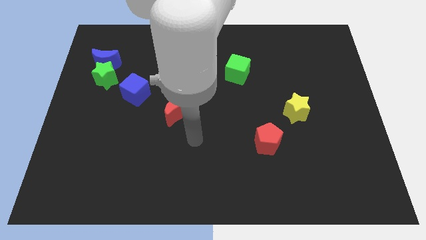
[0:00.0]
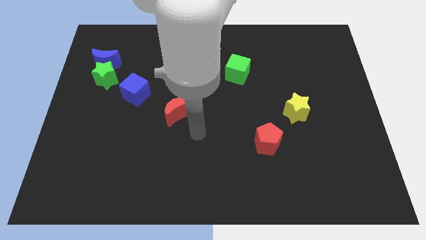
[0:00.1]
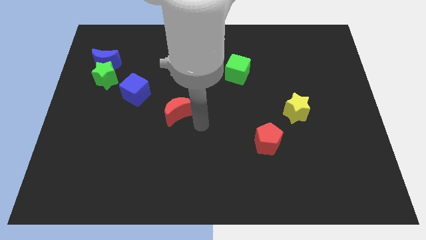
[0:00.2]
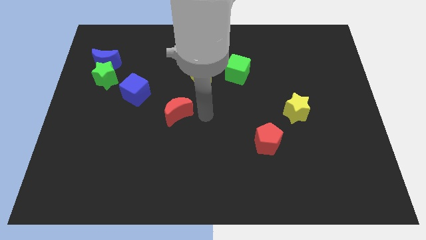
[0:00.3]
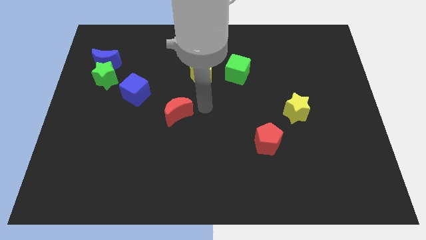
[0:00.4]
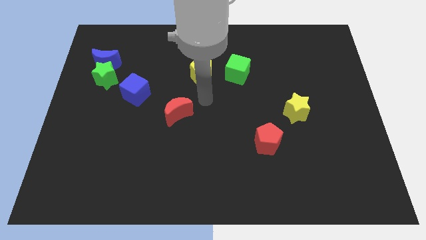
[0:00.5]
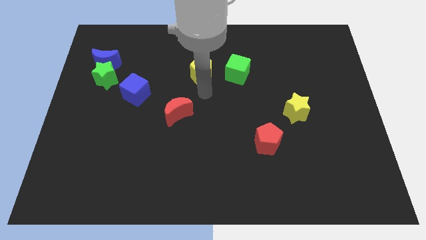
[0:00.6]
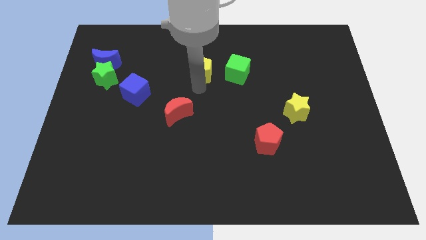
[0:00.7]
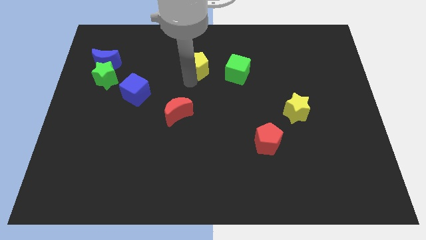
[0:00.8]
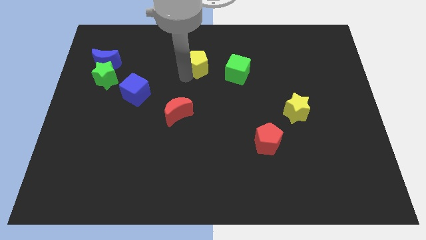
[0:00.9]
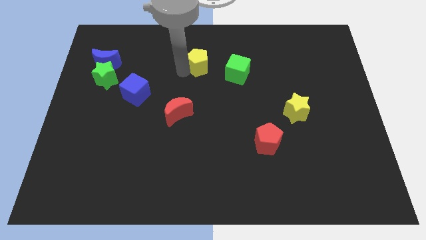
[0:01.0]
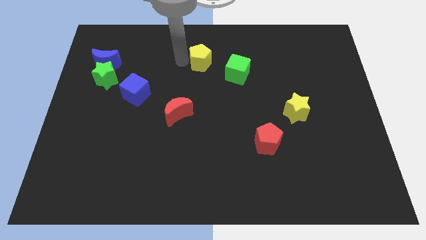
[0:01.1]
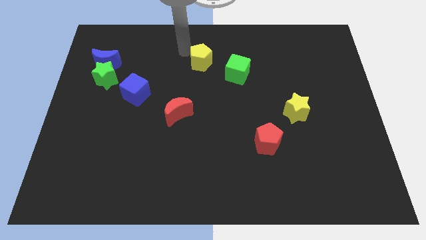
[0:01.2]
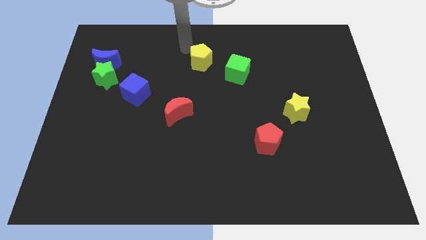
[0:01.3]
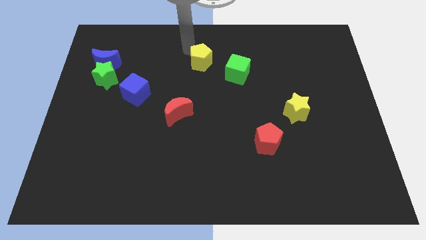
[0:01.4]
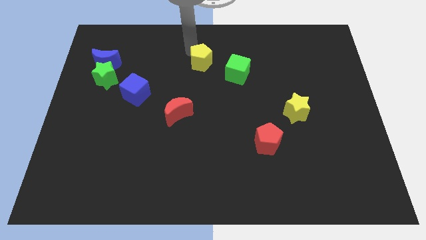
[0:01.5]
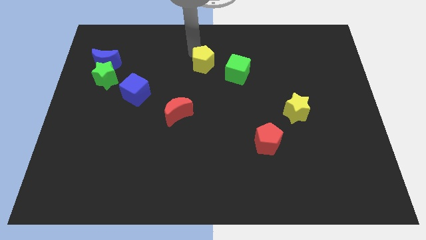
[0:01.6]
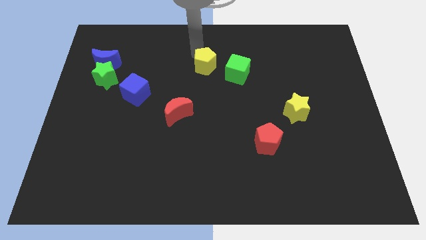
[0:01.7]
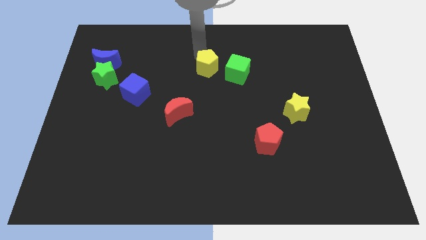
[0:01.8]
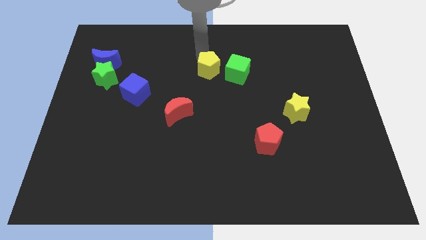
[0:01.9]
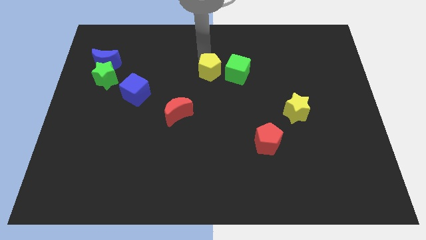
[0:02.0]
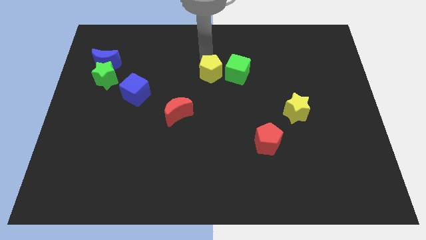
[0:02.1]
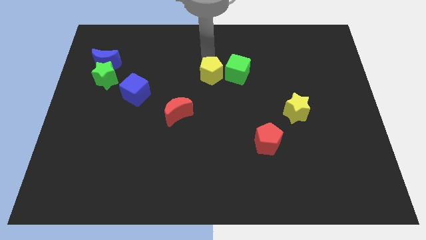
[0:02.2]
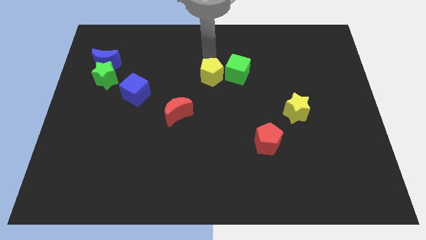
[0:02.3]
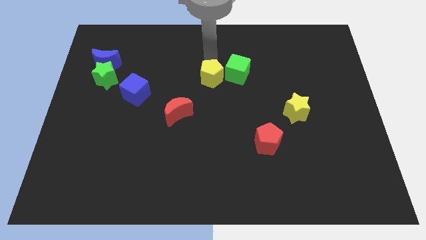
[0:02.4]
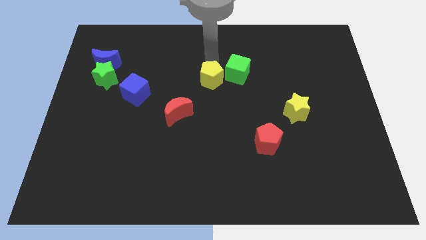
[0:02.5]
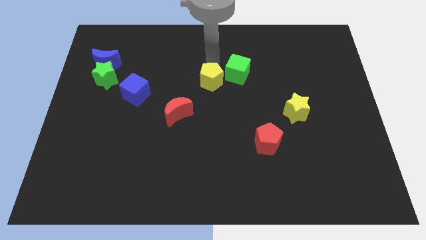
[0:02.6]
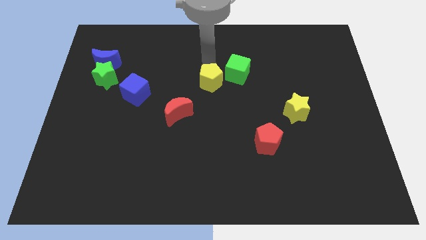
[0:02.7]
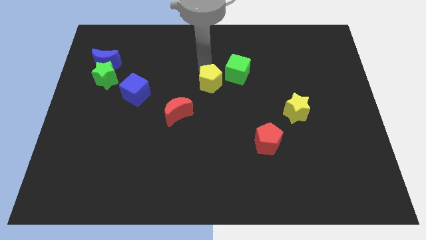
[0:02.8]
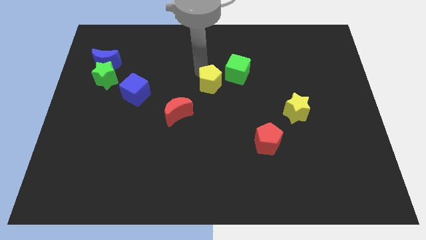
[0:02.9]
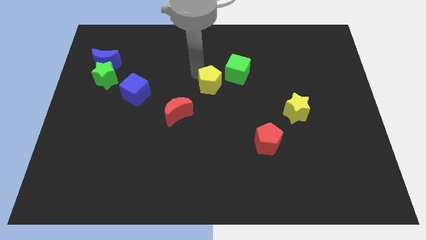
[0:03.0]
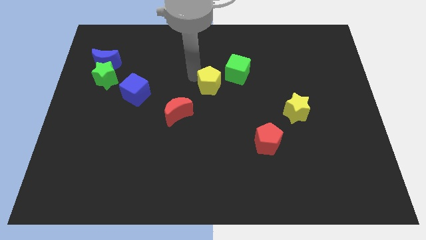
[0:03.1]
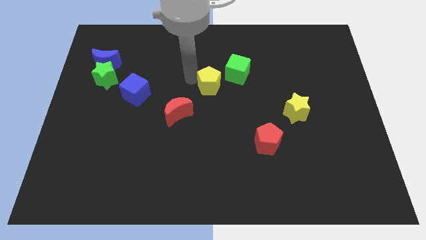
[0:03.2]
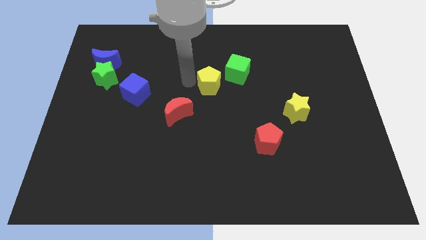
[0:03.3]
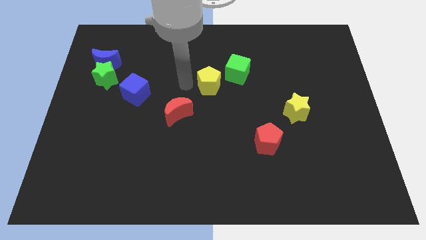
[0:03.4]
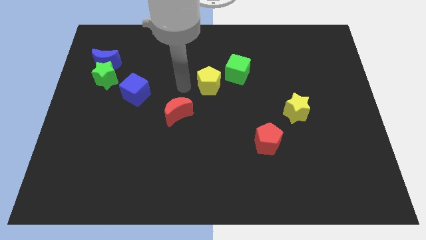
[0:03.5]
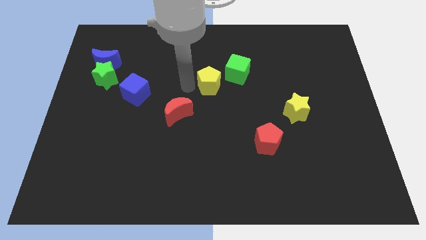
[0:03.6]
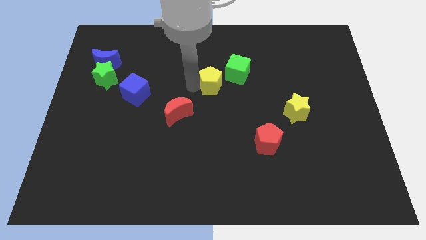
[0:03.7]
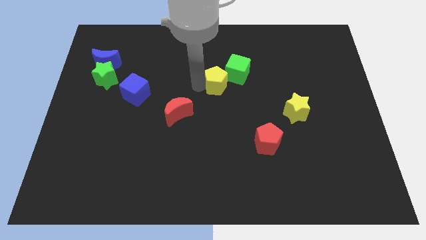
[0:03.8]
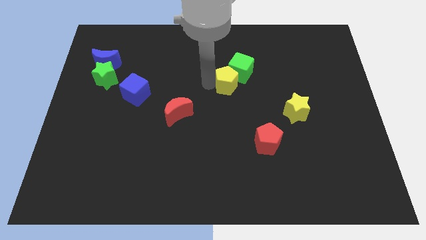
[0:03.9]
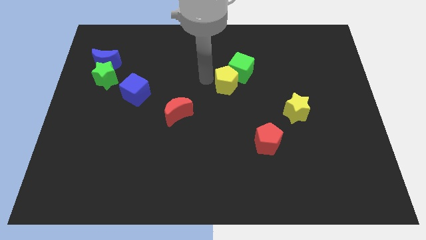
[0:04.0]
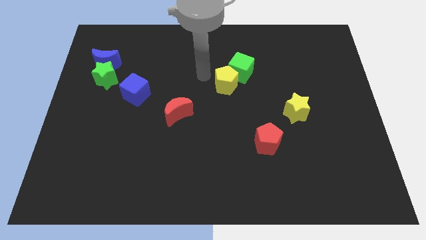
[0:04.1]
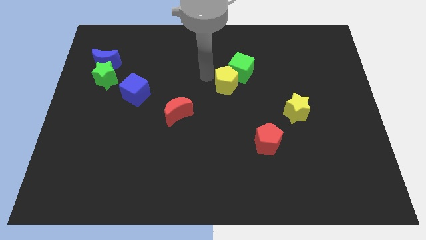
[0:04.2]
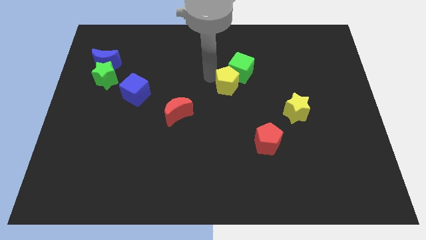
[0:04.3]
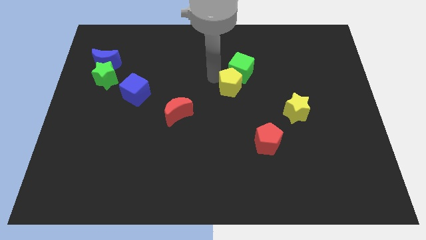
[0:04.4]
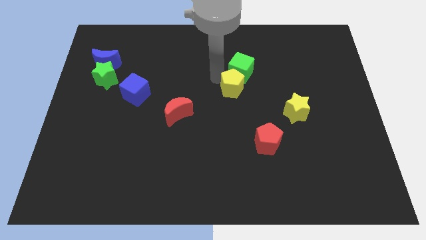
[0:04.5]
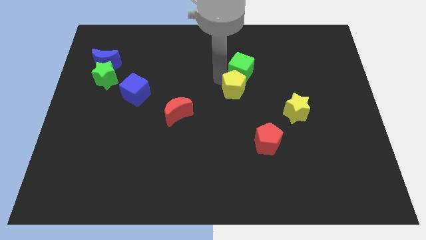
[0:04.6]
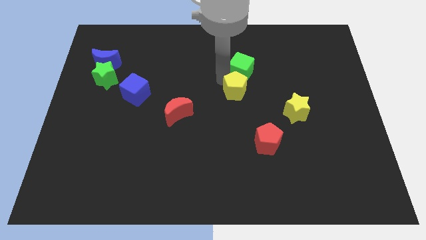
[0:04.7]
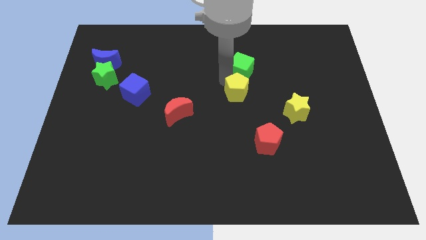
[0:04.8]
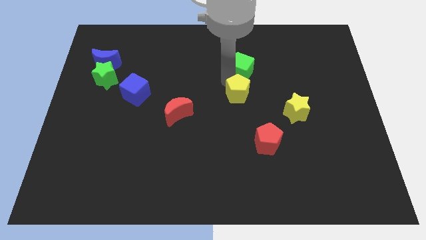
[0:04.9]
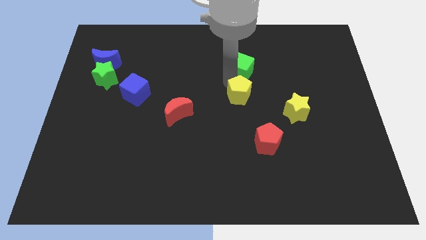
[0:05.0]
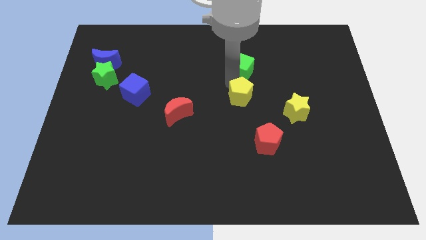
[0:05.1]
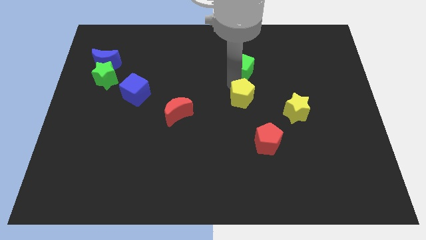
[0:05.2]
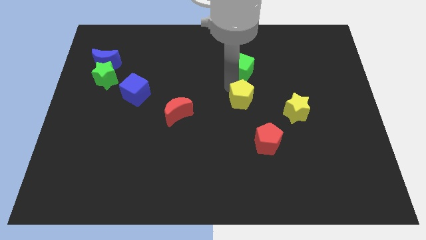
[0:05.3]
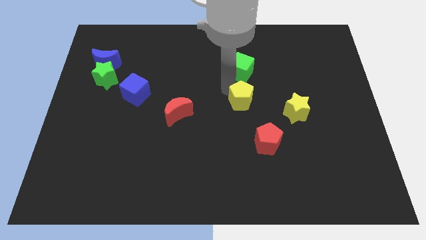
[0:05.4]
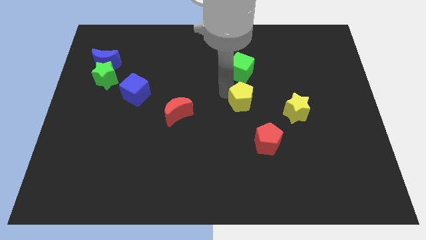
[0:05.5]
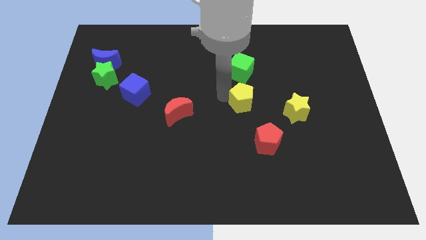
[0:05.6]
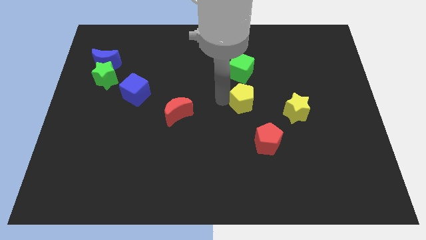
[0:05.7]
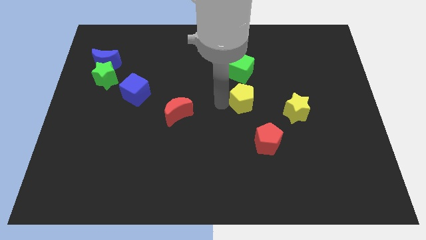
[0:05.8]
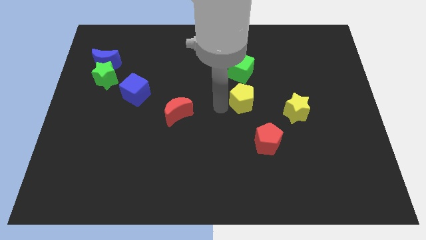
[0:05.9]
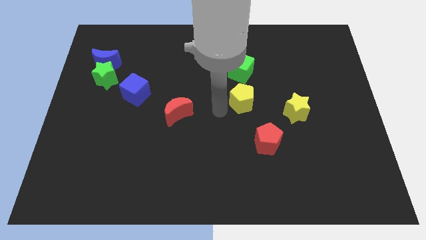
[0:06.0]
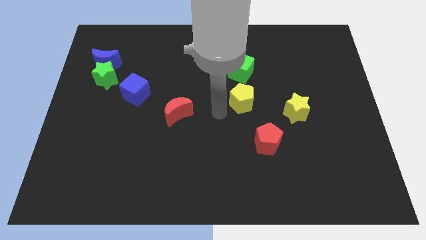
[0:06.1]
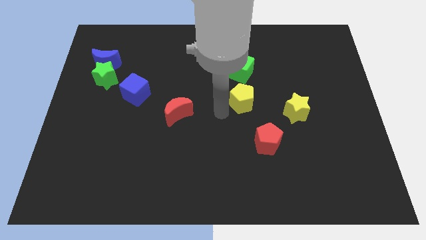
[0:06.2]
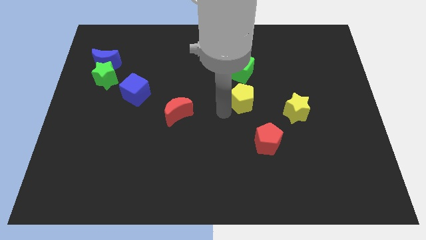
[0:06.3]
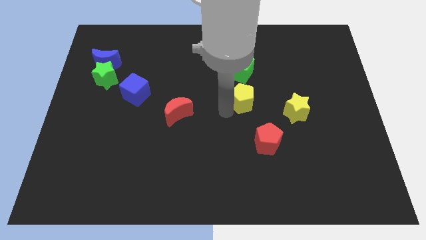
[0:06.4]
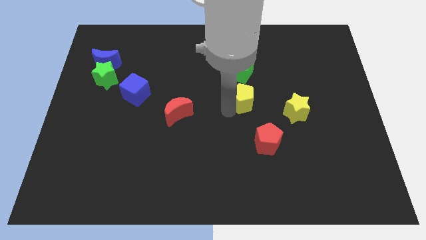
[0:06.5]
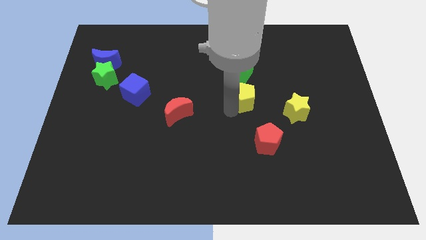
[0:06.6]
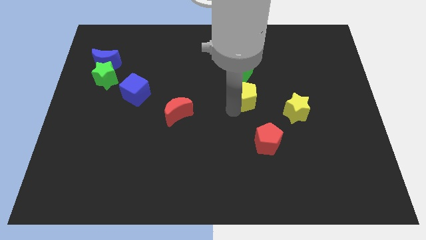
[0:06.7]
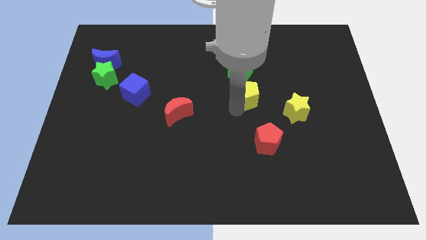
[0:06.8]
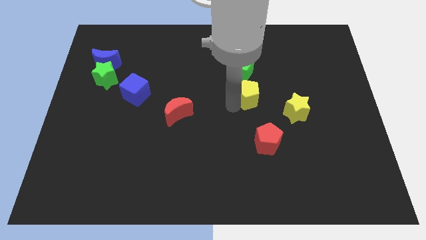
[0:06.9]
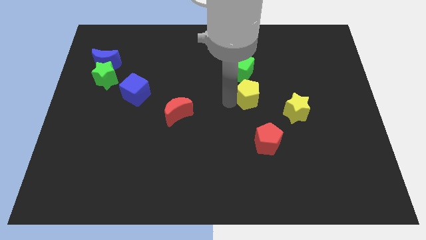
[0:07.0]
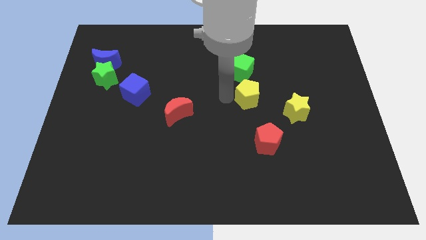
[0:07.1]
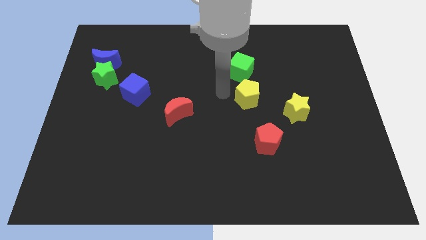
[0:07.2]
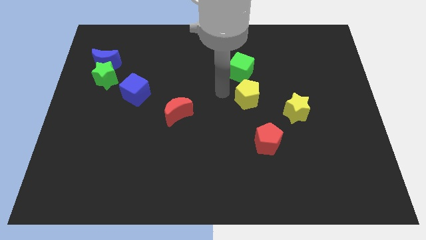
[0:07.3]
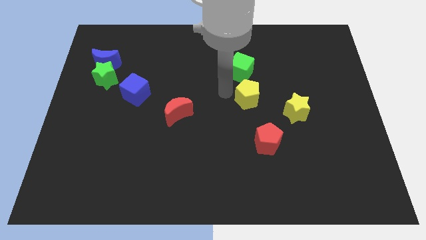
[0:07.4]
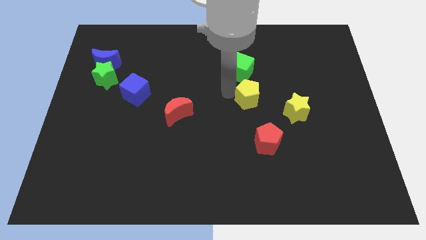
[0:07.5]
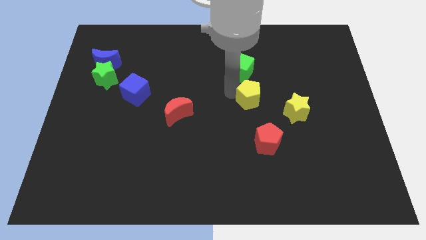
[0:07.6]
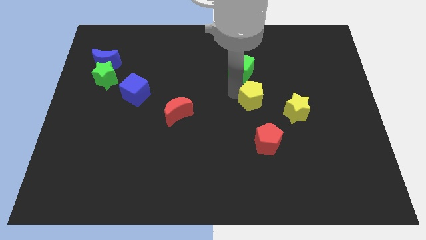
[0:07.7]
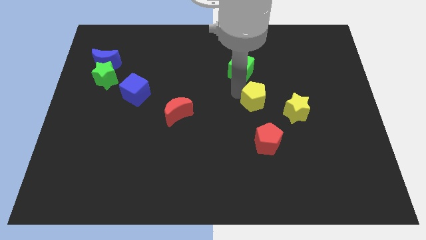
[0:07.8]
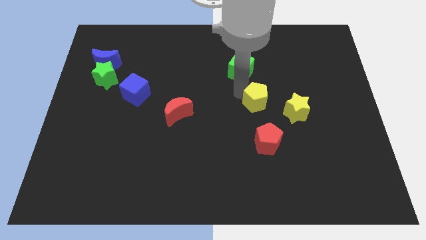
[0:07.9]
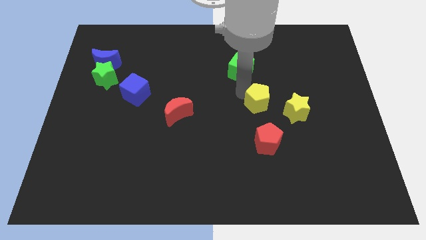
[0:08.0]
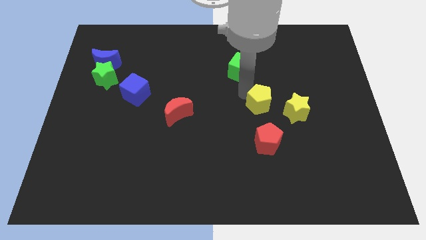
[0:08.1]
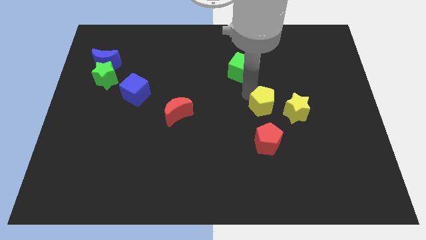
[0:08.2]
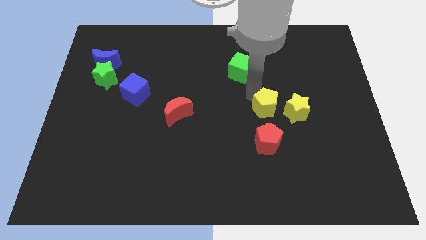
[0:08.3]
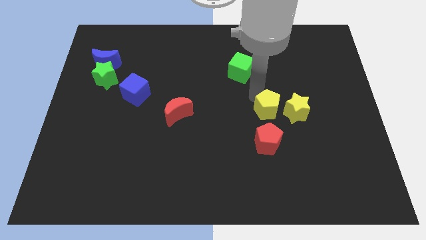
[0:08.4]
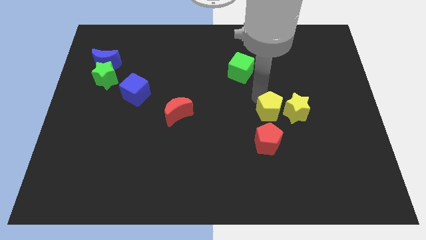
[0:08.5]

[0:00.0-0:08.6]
move the yellow pentagon close to the yellow star
